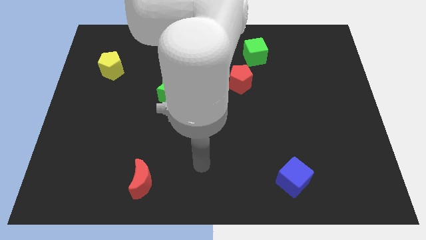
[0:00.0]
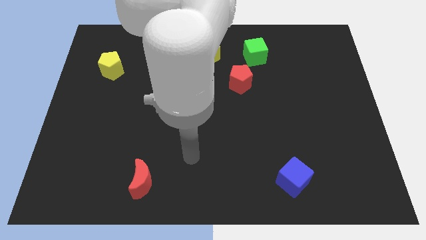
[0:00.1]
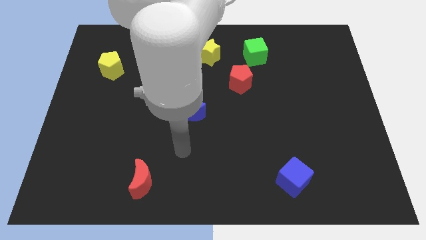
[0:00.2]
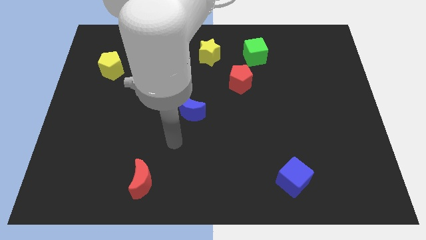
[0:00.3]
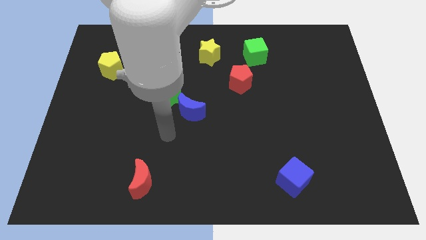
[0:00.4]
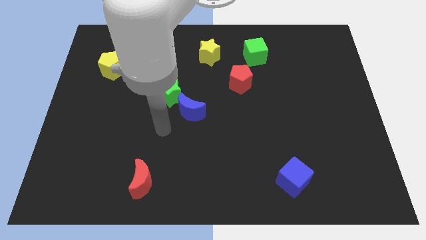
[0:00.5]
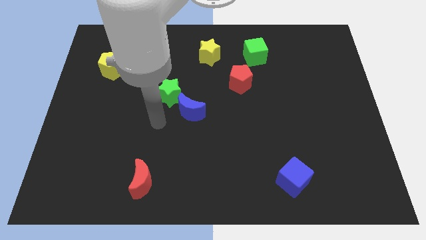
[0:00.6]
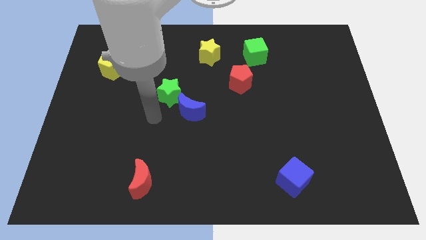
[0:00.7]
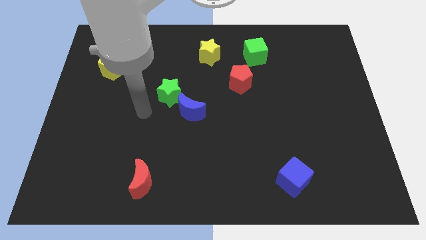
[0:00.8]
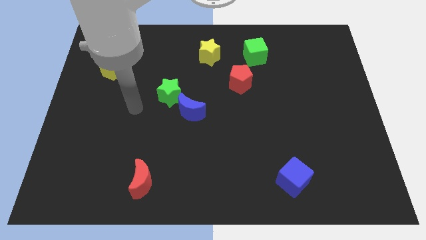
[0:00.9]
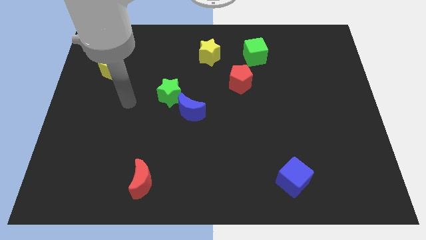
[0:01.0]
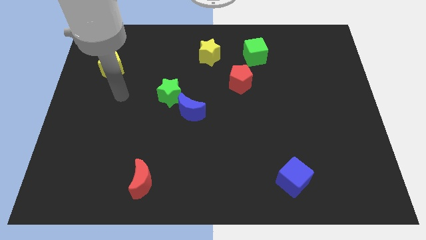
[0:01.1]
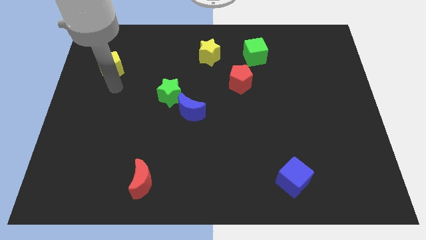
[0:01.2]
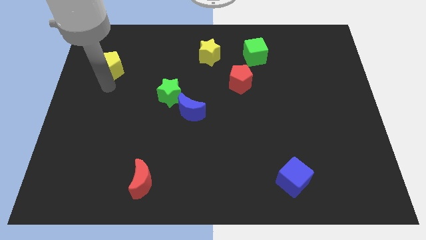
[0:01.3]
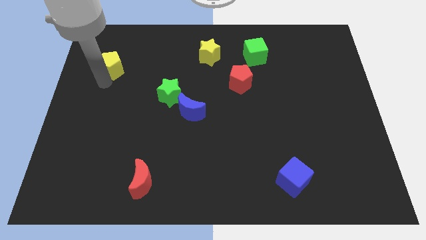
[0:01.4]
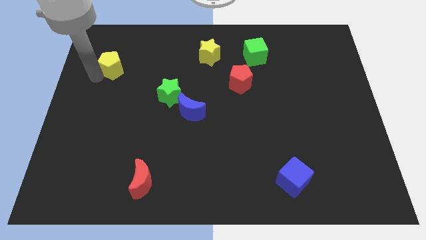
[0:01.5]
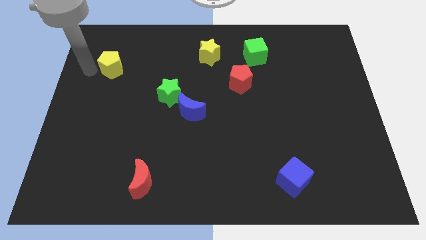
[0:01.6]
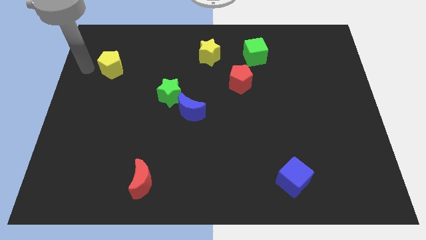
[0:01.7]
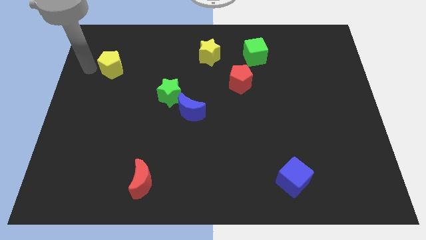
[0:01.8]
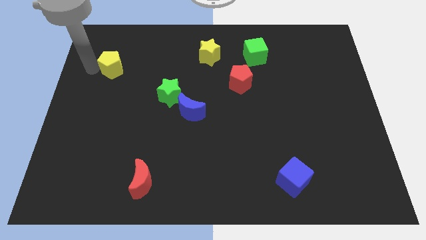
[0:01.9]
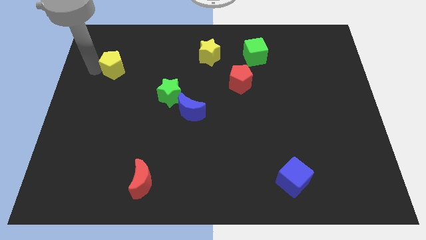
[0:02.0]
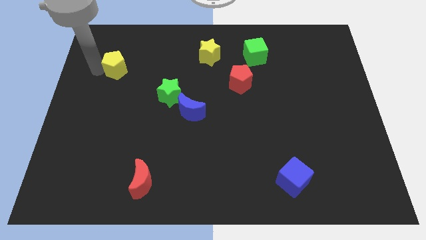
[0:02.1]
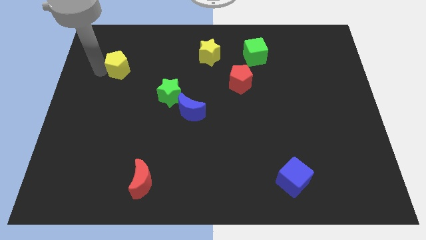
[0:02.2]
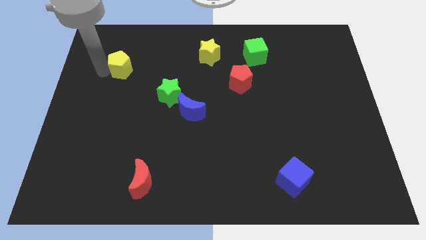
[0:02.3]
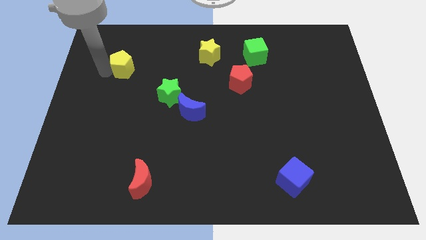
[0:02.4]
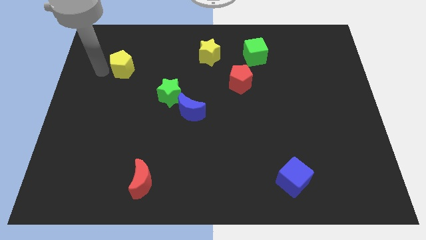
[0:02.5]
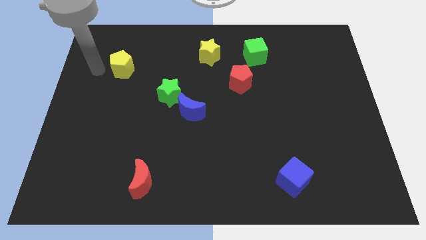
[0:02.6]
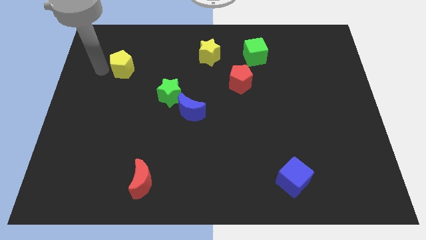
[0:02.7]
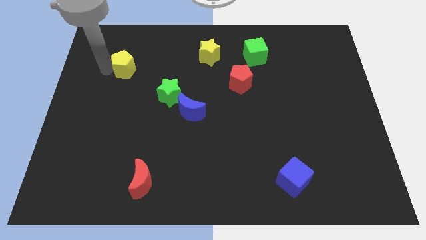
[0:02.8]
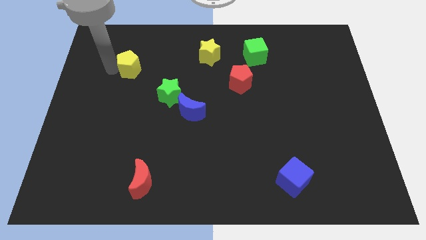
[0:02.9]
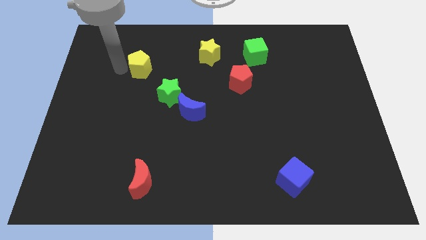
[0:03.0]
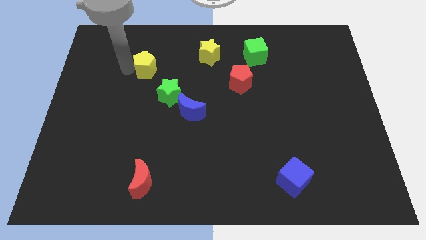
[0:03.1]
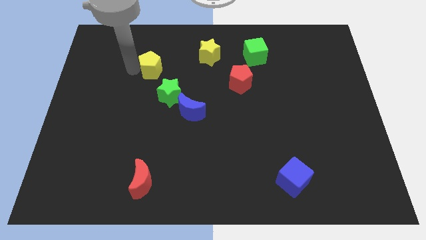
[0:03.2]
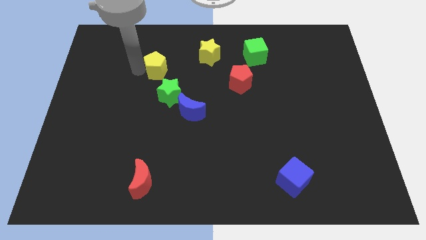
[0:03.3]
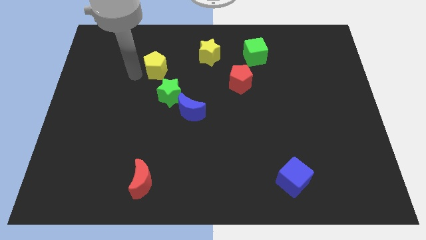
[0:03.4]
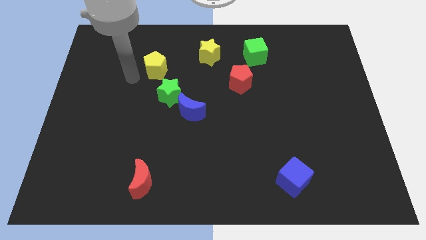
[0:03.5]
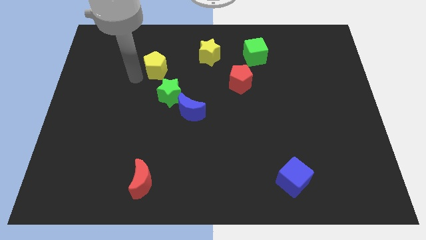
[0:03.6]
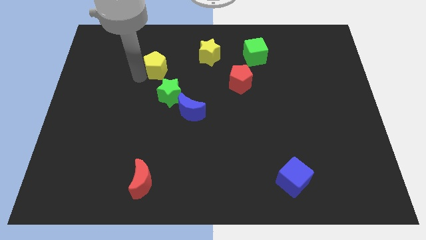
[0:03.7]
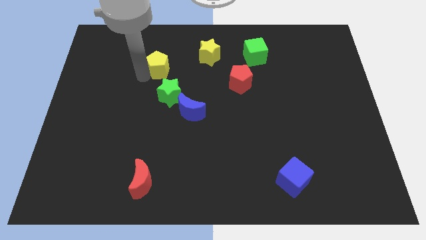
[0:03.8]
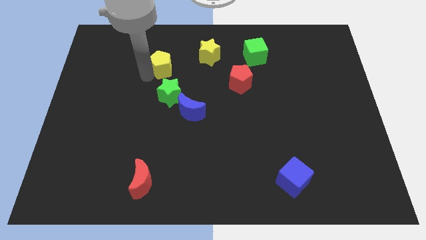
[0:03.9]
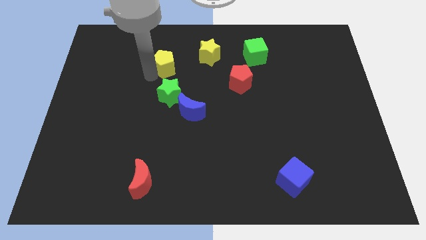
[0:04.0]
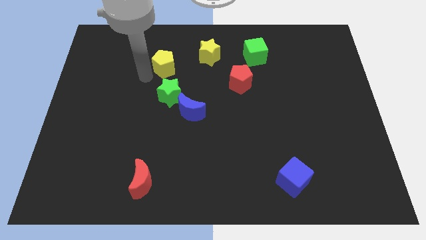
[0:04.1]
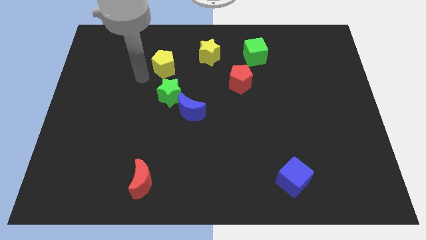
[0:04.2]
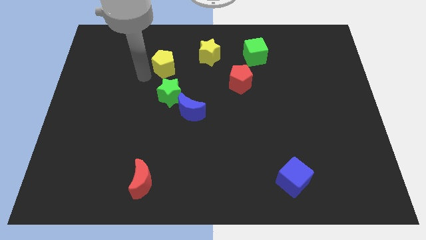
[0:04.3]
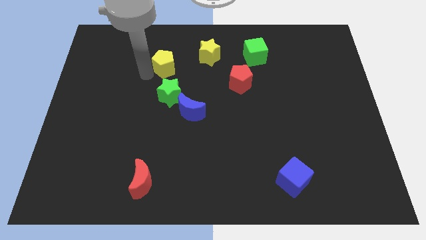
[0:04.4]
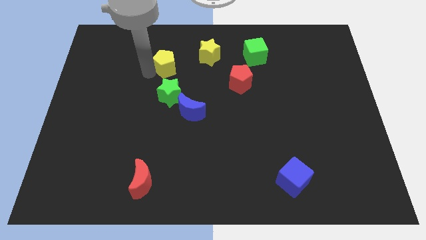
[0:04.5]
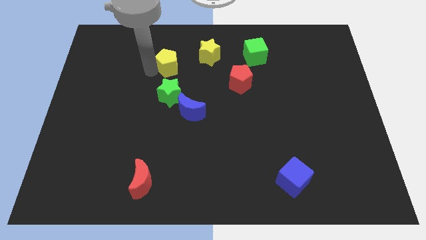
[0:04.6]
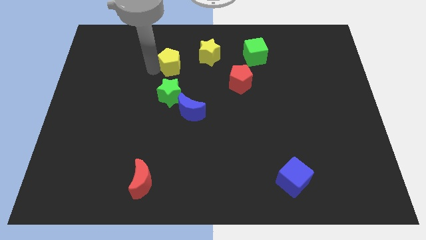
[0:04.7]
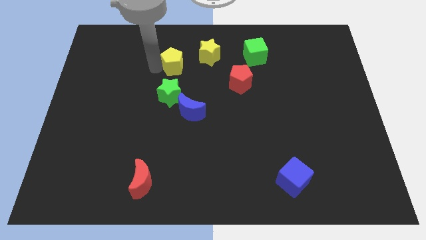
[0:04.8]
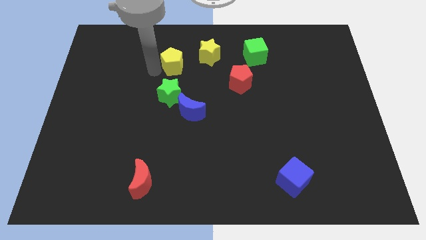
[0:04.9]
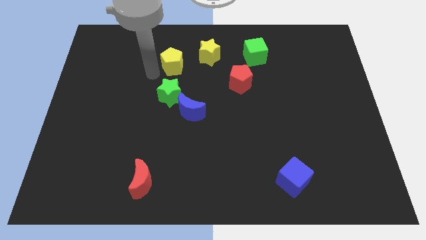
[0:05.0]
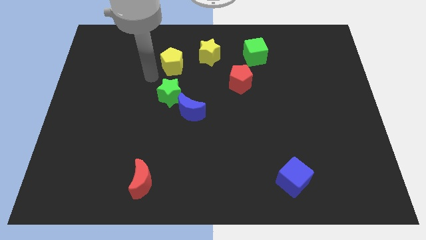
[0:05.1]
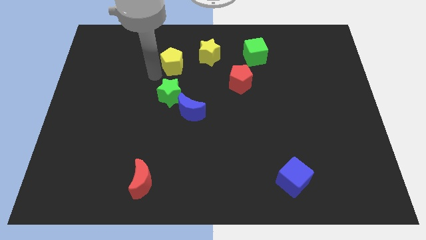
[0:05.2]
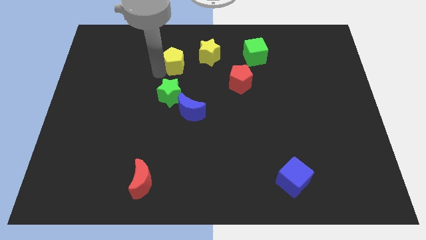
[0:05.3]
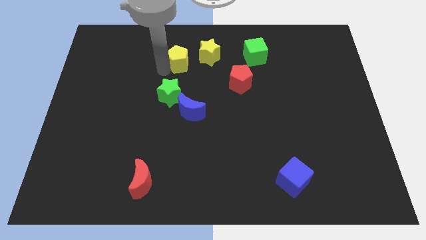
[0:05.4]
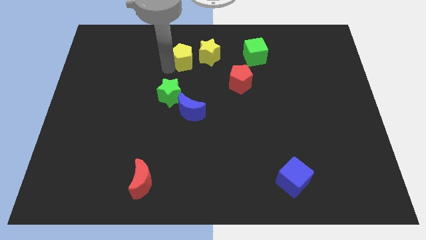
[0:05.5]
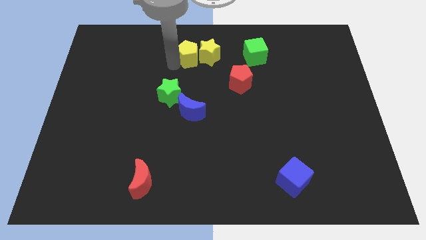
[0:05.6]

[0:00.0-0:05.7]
put the yellow pentagon close to the yellow star

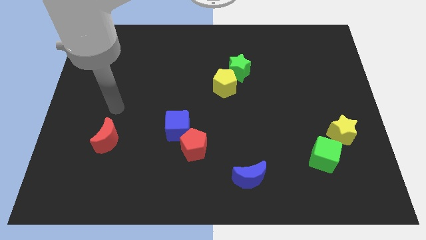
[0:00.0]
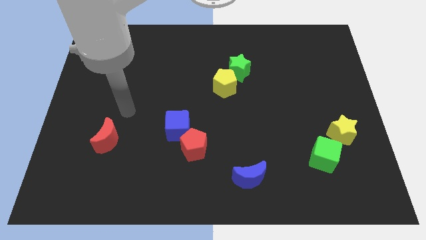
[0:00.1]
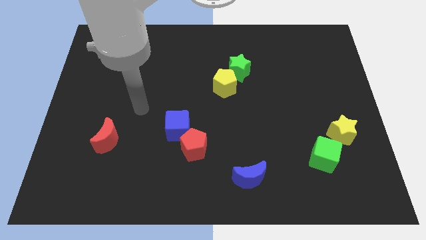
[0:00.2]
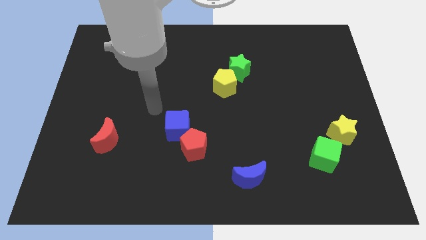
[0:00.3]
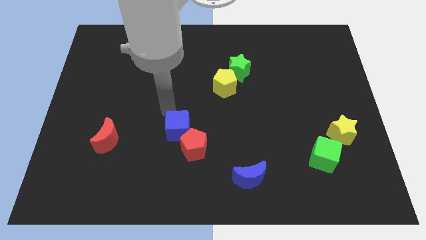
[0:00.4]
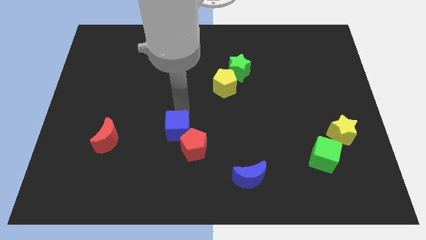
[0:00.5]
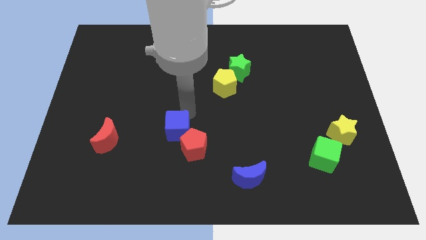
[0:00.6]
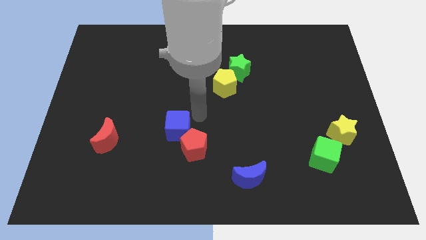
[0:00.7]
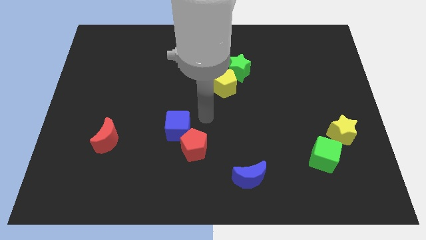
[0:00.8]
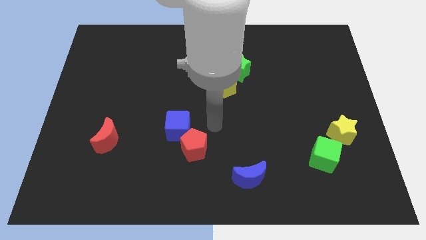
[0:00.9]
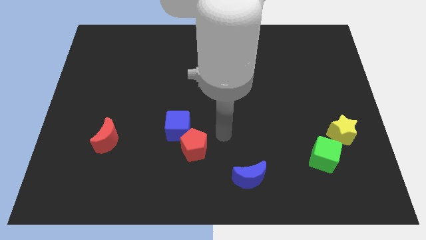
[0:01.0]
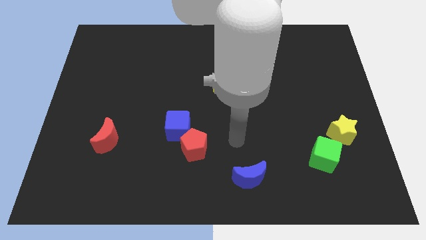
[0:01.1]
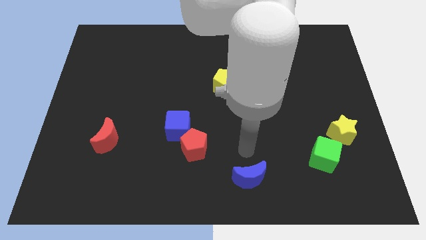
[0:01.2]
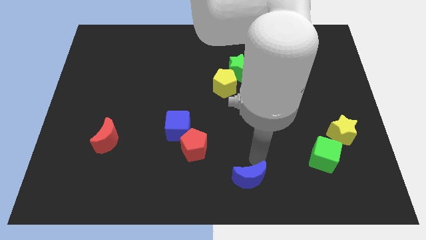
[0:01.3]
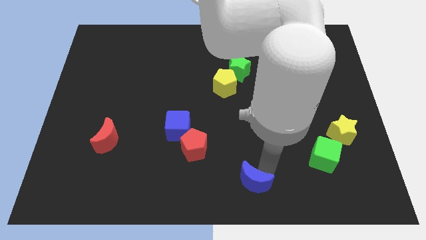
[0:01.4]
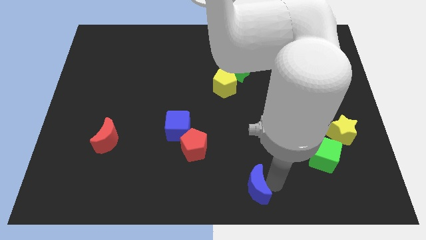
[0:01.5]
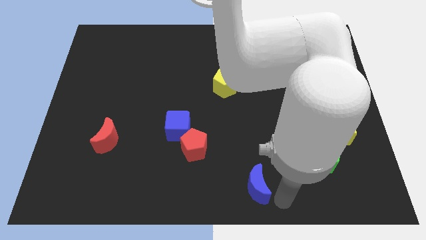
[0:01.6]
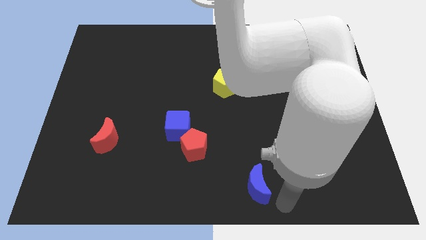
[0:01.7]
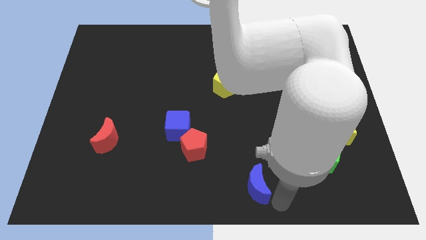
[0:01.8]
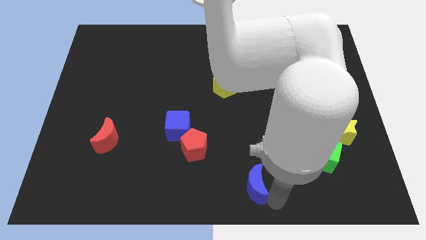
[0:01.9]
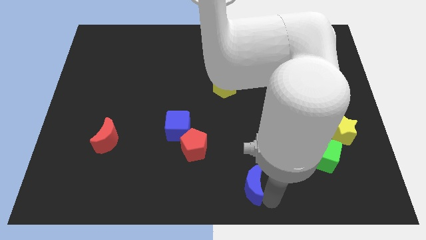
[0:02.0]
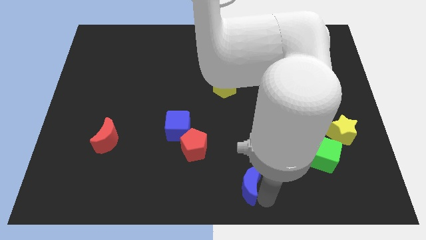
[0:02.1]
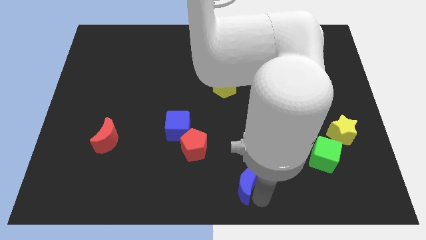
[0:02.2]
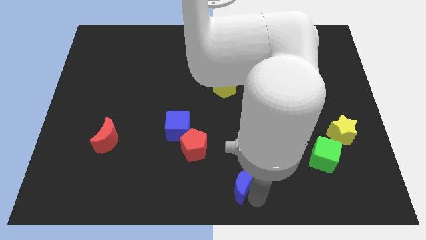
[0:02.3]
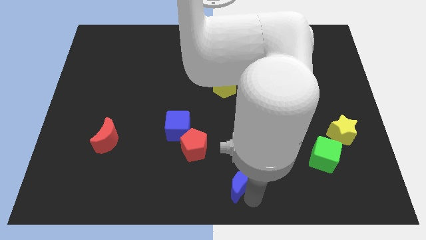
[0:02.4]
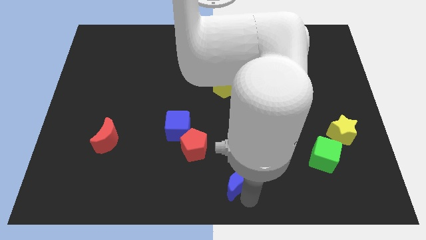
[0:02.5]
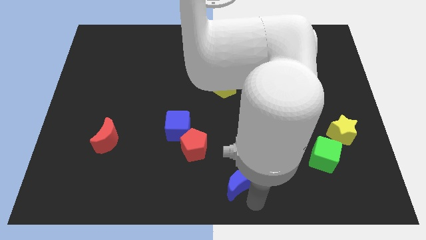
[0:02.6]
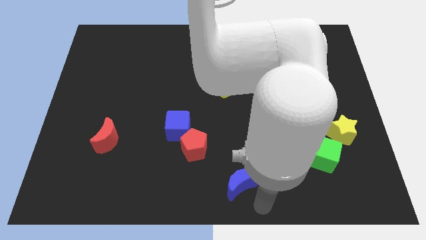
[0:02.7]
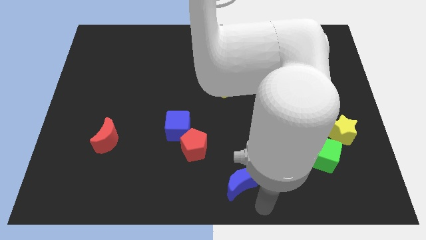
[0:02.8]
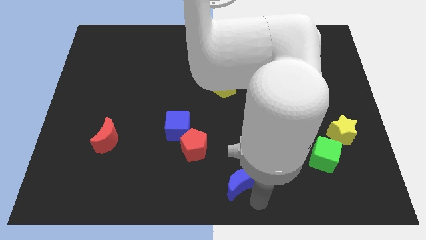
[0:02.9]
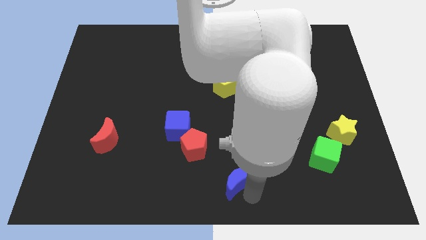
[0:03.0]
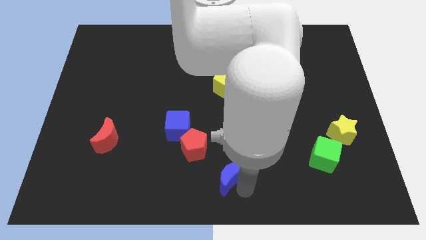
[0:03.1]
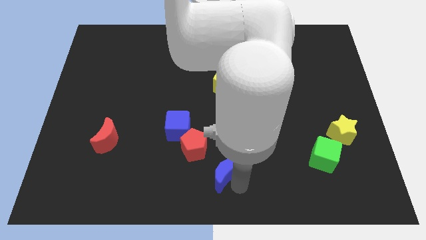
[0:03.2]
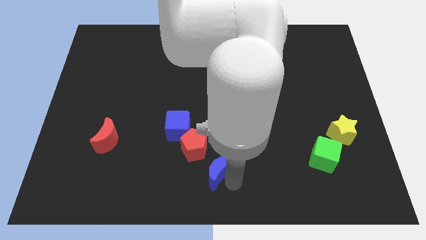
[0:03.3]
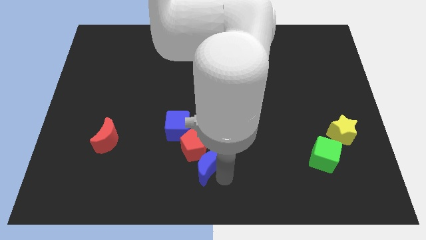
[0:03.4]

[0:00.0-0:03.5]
move the blue moon towards the red pentagon
